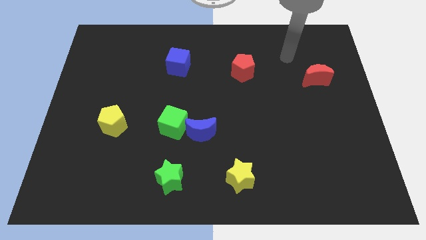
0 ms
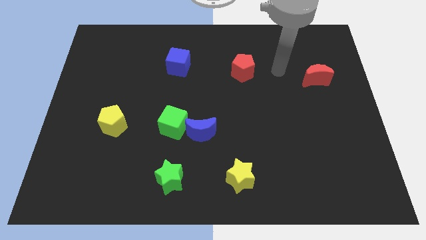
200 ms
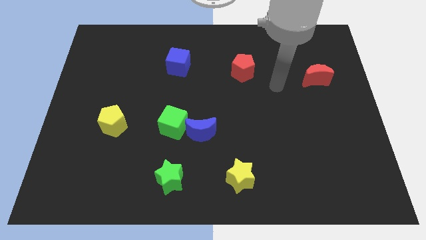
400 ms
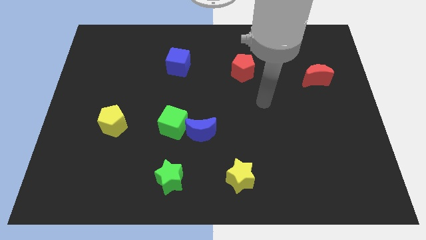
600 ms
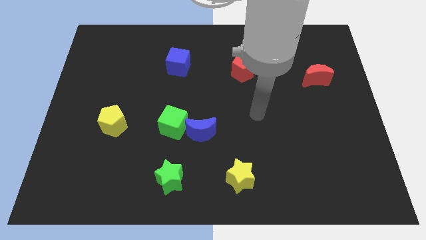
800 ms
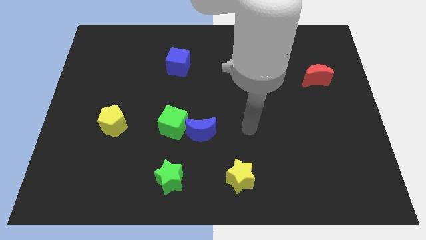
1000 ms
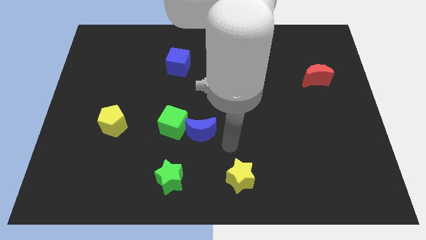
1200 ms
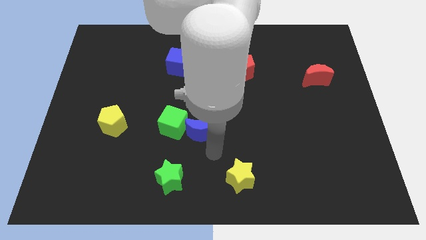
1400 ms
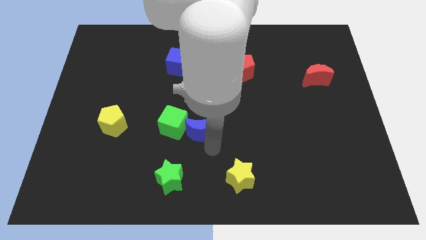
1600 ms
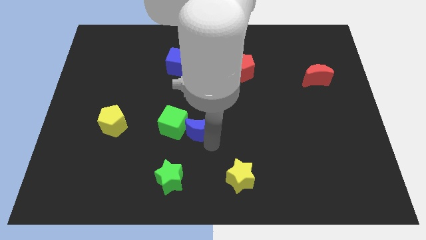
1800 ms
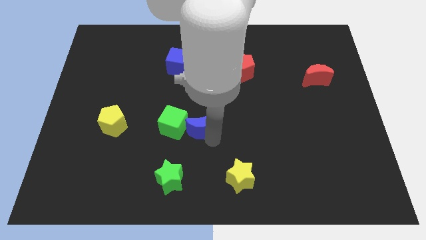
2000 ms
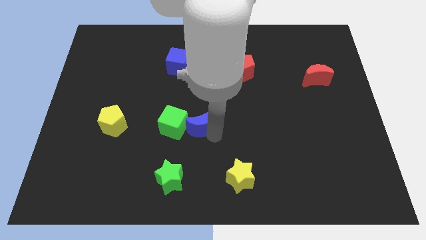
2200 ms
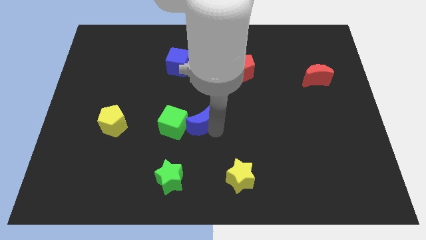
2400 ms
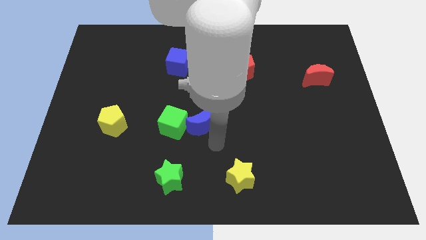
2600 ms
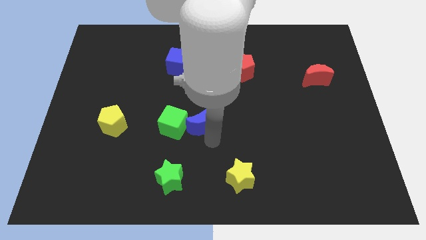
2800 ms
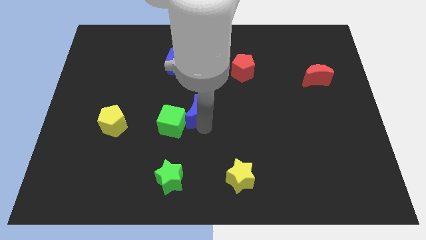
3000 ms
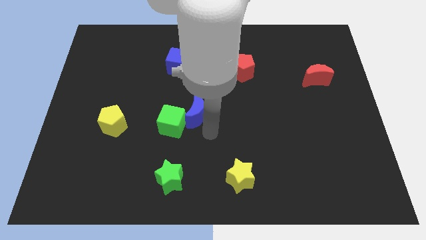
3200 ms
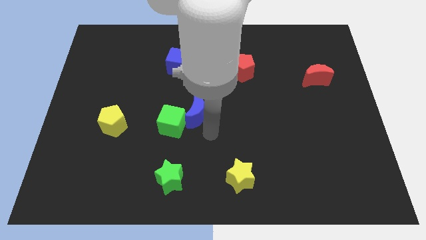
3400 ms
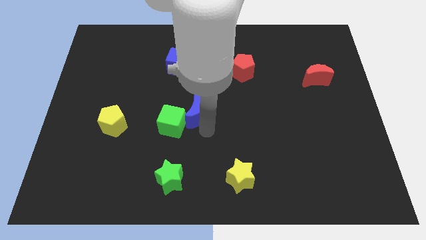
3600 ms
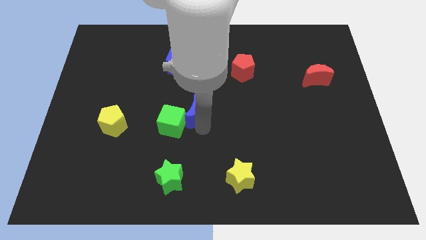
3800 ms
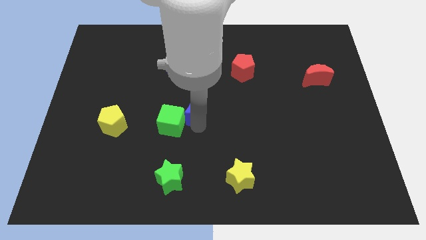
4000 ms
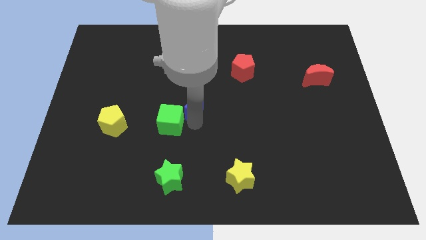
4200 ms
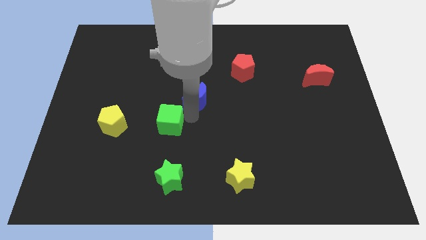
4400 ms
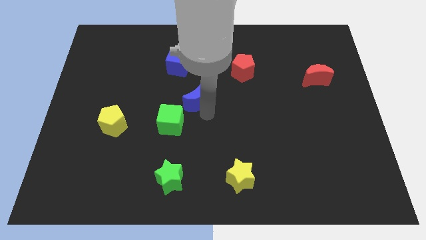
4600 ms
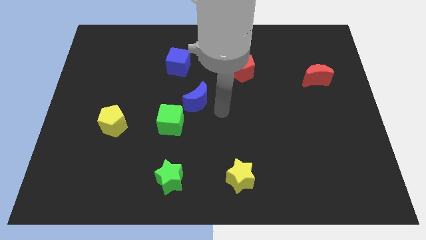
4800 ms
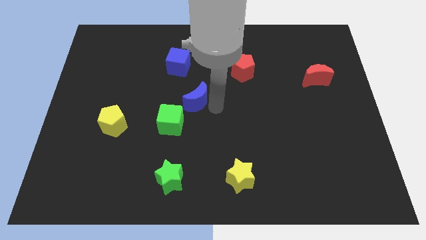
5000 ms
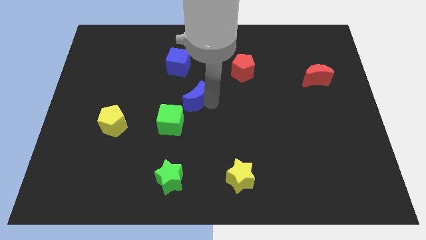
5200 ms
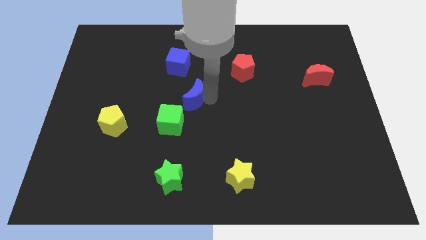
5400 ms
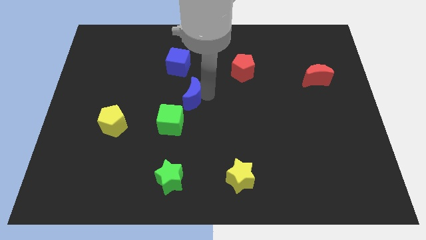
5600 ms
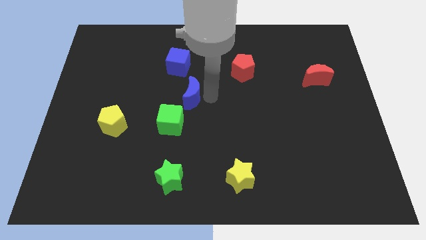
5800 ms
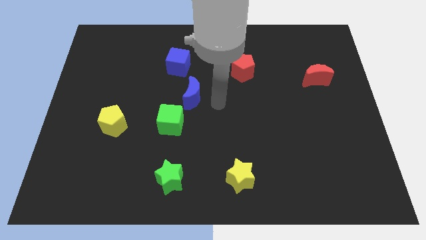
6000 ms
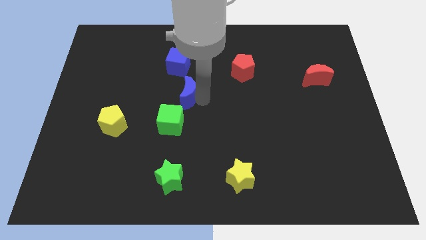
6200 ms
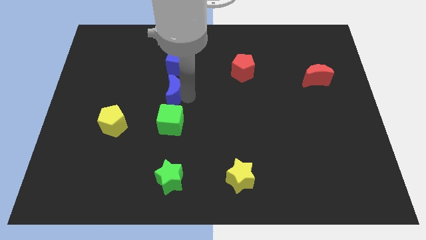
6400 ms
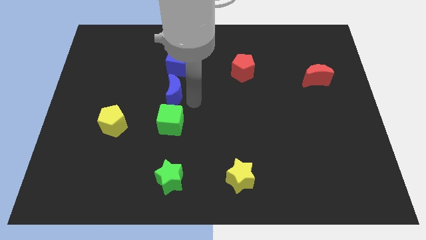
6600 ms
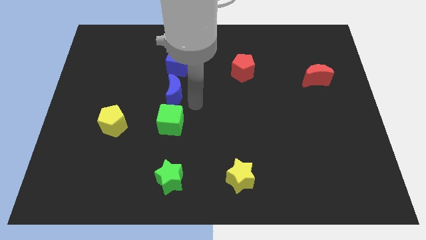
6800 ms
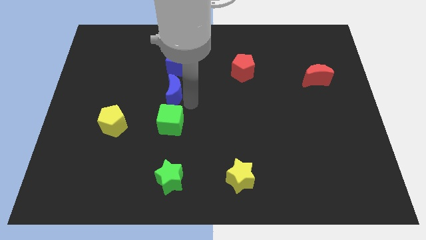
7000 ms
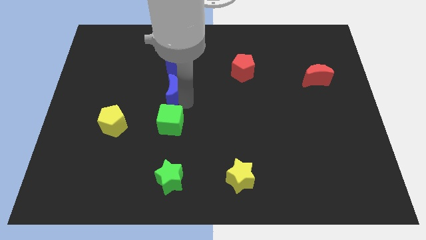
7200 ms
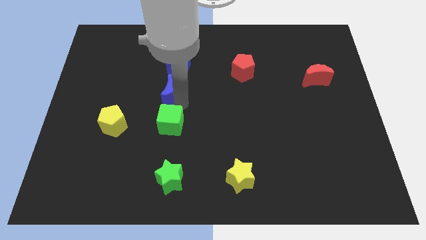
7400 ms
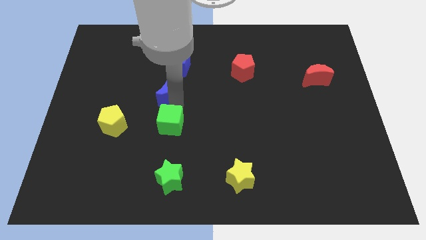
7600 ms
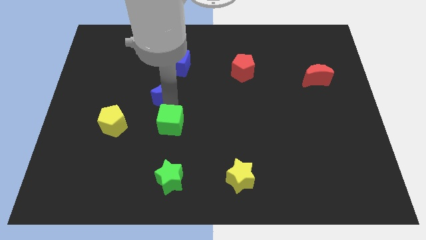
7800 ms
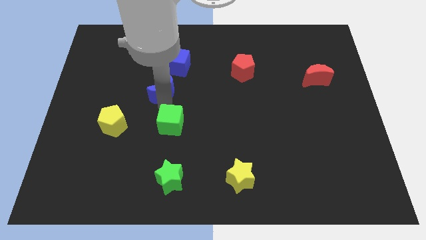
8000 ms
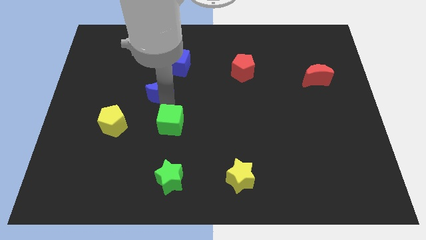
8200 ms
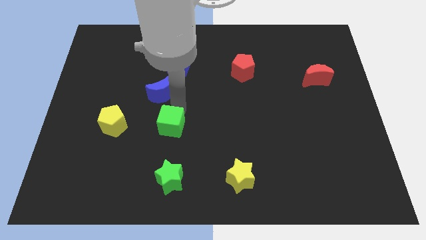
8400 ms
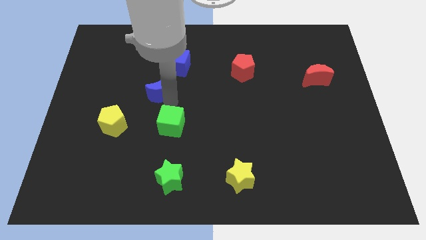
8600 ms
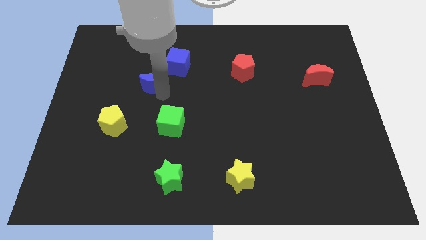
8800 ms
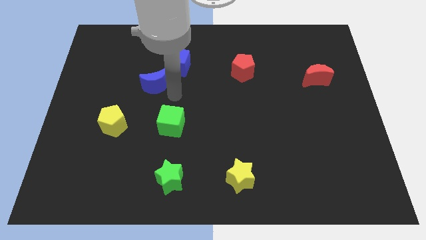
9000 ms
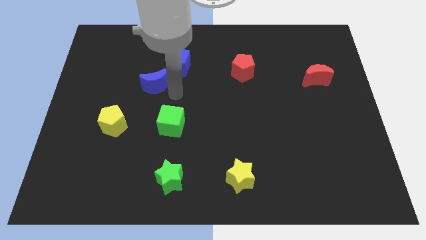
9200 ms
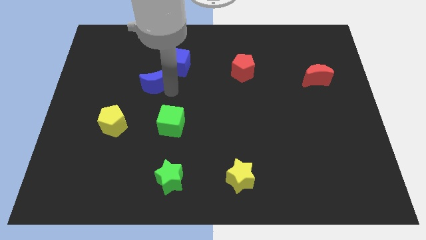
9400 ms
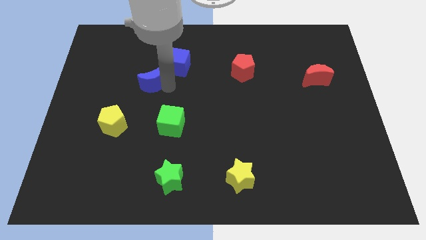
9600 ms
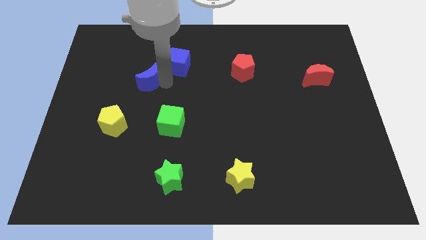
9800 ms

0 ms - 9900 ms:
move the blue moon up and left

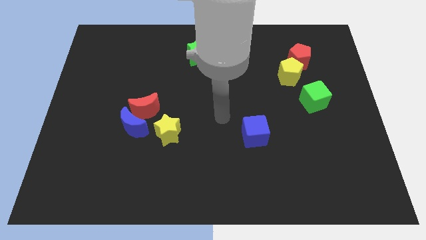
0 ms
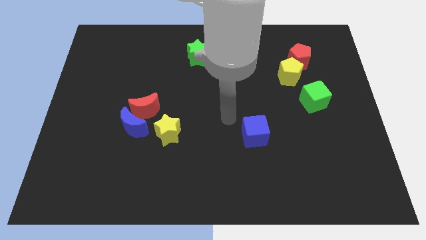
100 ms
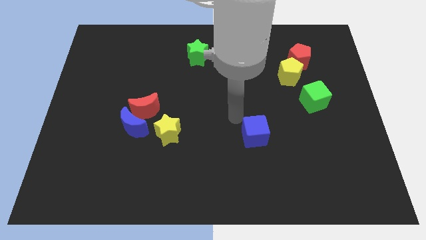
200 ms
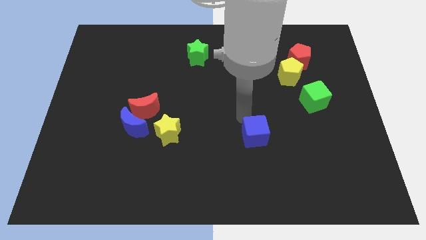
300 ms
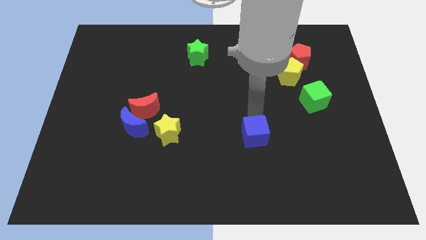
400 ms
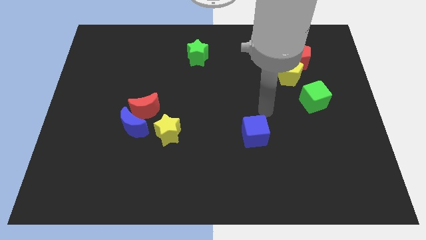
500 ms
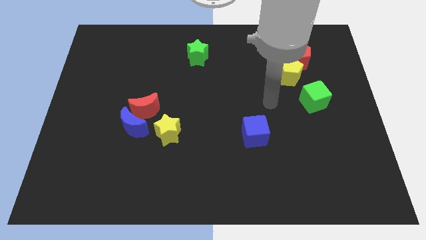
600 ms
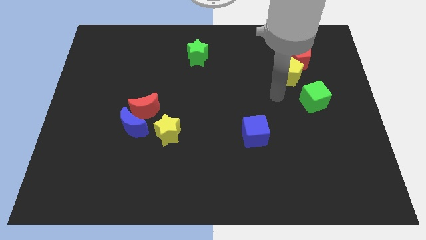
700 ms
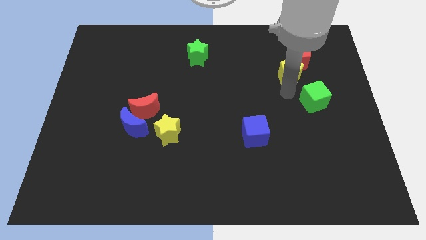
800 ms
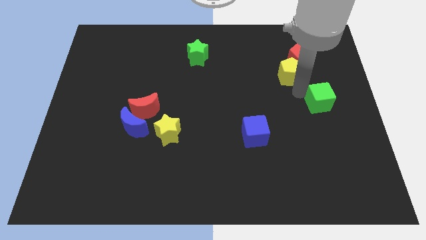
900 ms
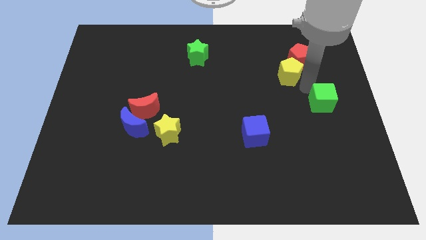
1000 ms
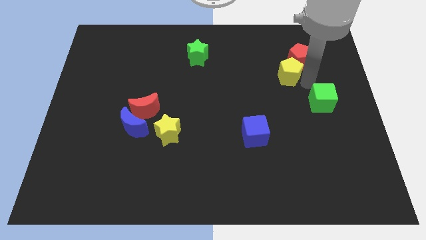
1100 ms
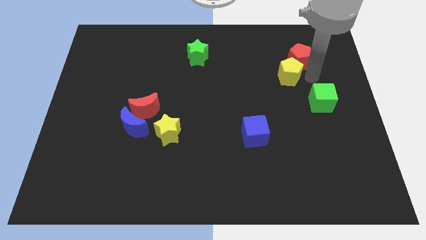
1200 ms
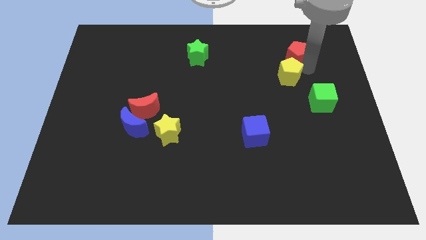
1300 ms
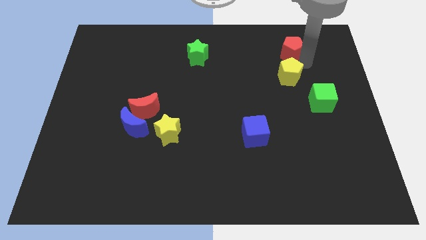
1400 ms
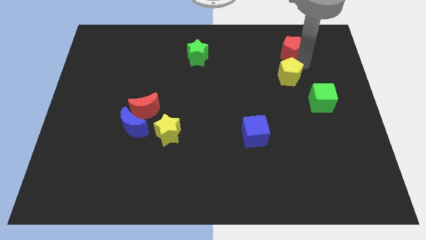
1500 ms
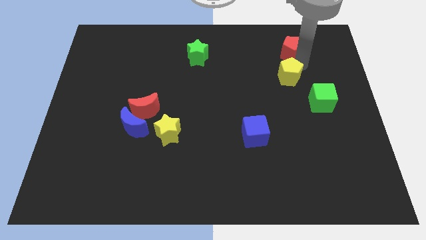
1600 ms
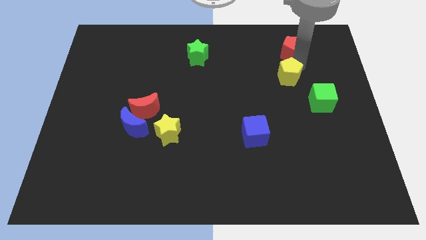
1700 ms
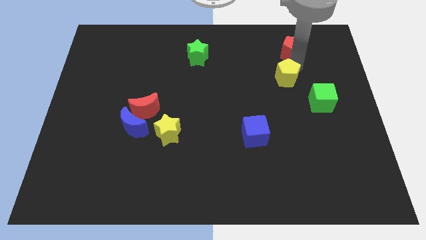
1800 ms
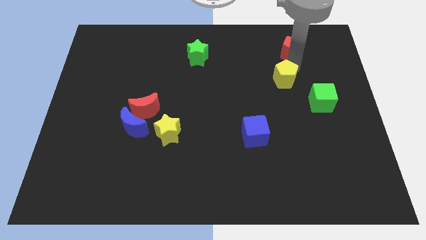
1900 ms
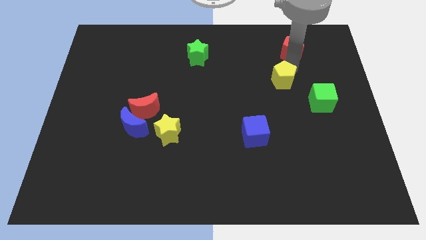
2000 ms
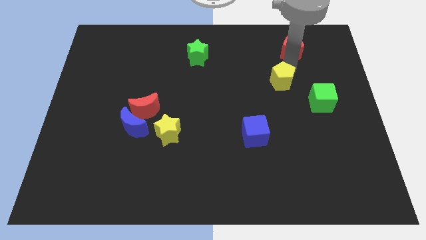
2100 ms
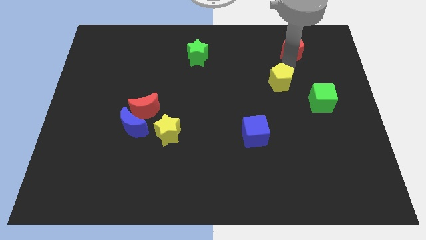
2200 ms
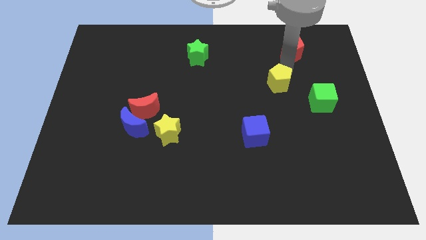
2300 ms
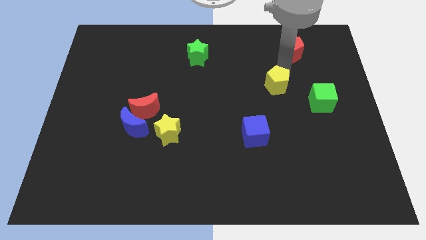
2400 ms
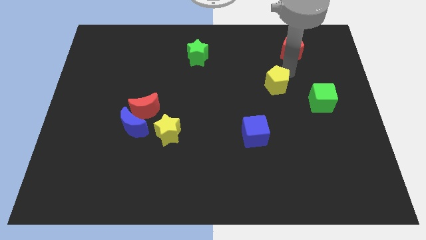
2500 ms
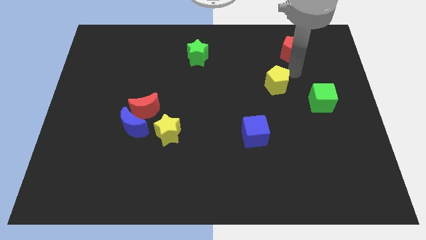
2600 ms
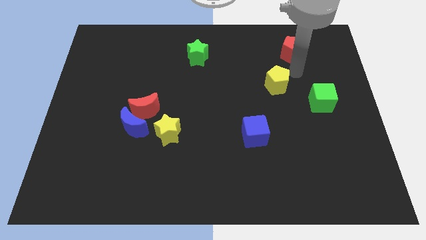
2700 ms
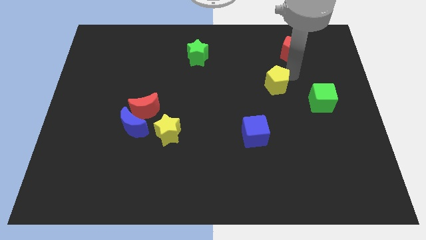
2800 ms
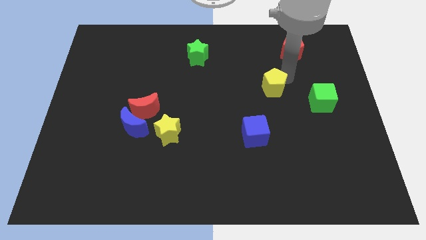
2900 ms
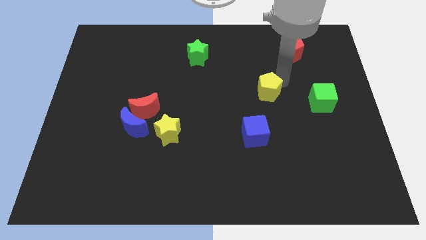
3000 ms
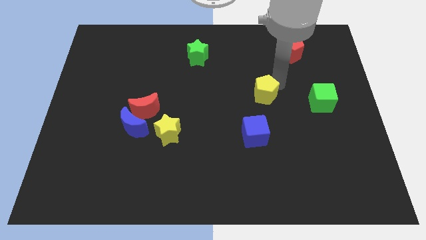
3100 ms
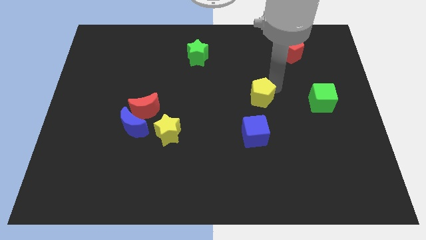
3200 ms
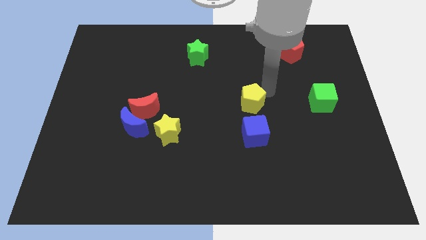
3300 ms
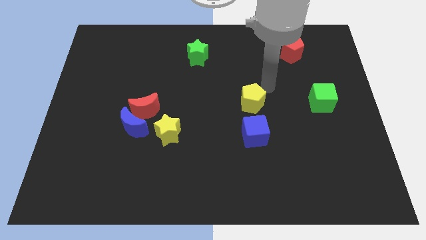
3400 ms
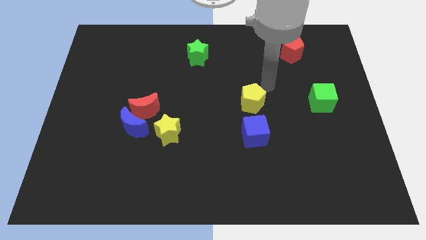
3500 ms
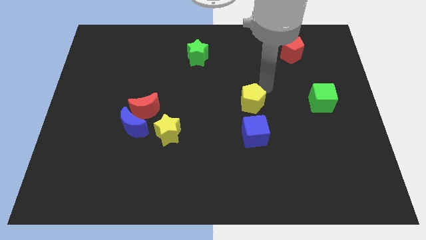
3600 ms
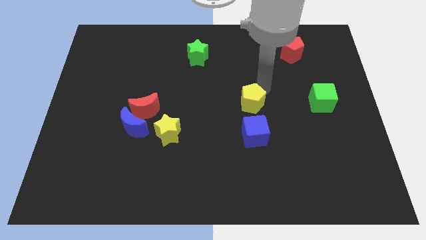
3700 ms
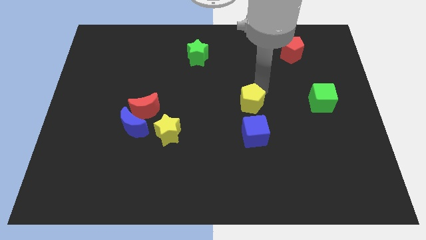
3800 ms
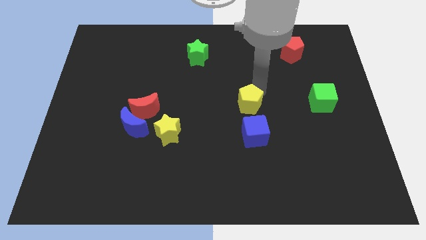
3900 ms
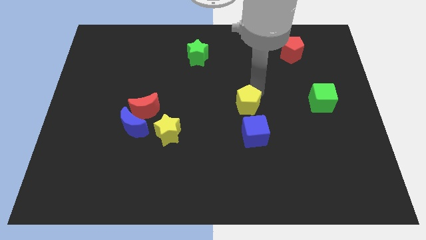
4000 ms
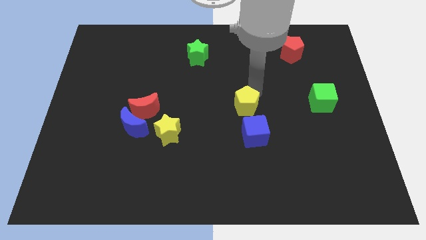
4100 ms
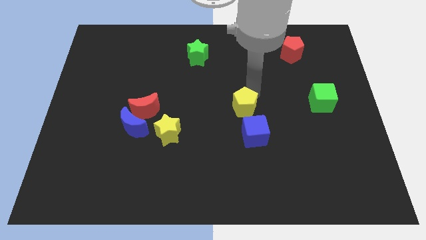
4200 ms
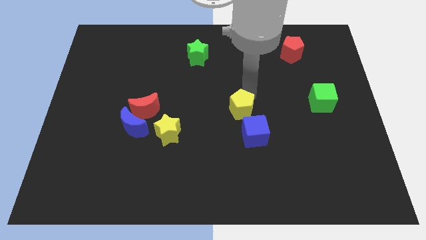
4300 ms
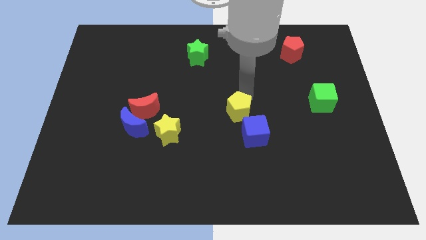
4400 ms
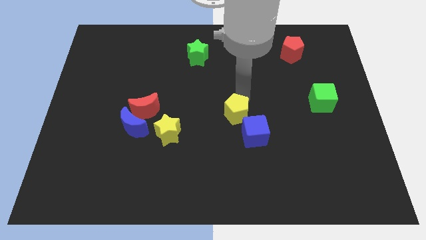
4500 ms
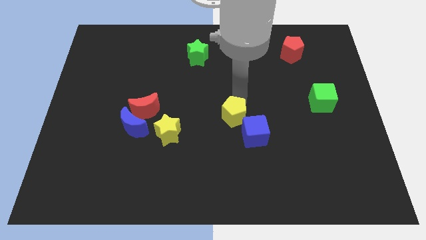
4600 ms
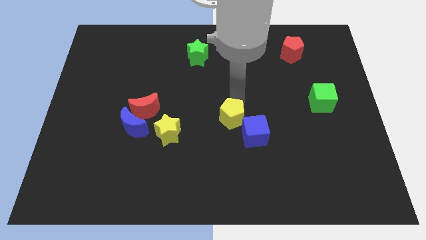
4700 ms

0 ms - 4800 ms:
slide the yellow pentagon downwards and to the left
